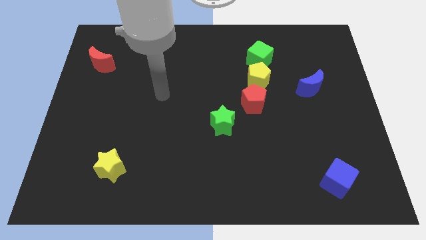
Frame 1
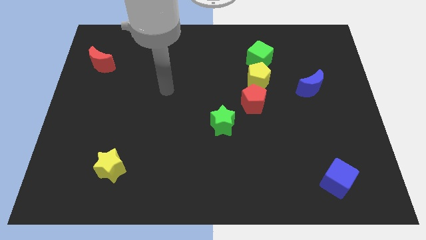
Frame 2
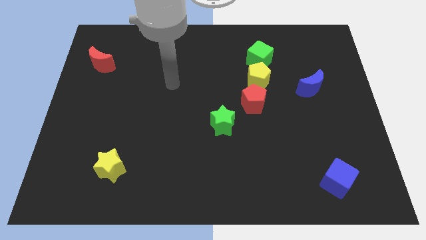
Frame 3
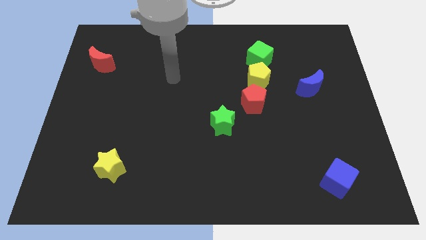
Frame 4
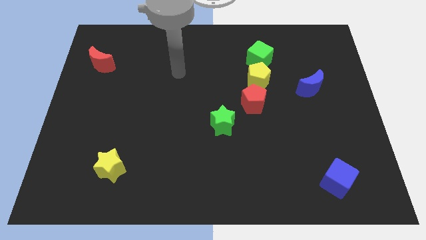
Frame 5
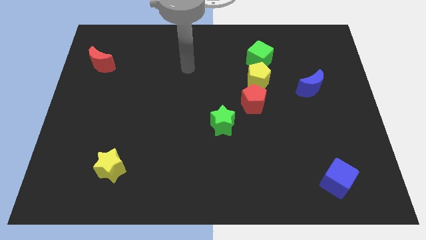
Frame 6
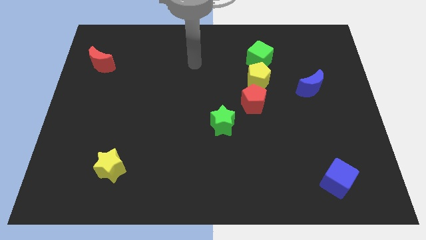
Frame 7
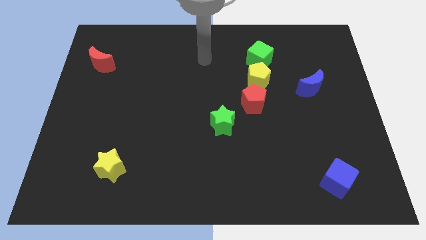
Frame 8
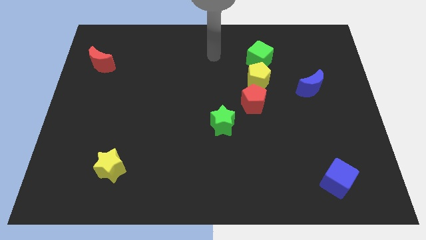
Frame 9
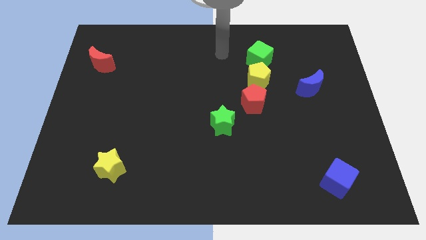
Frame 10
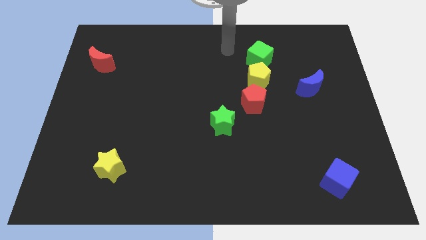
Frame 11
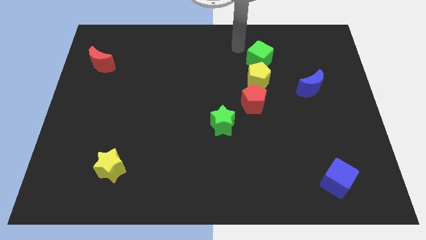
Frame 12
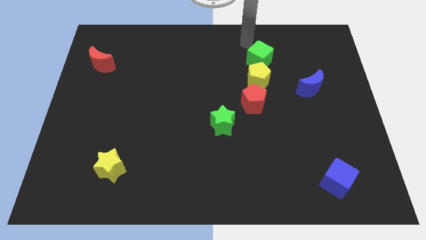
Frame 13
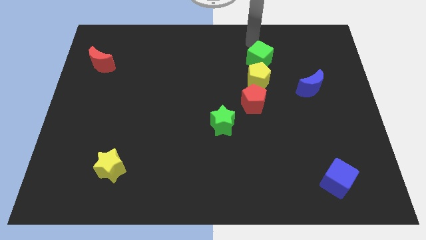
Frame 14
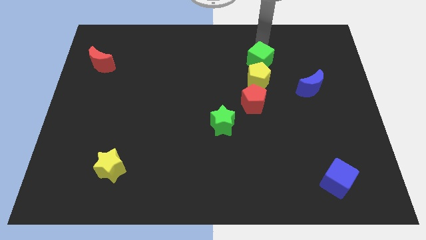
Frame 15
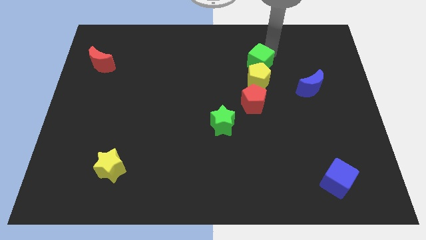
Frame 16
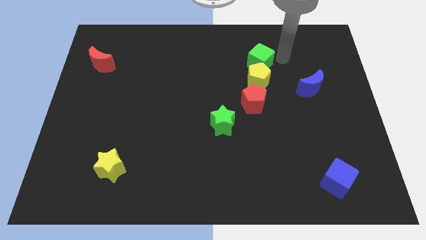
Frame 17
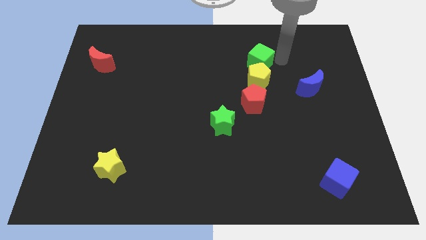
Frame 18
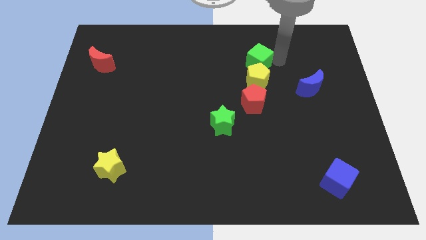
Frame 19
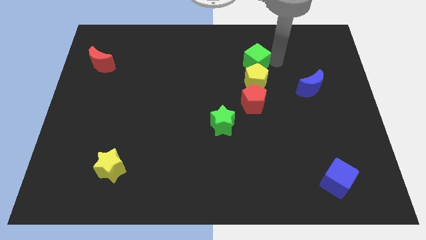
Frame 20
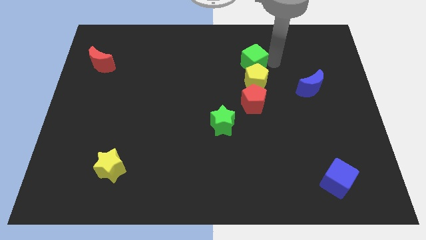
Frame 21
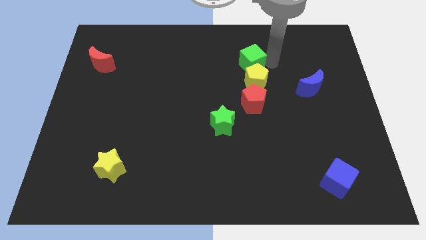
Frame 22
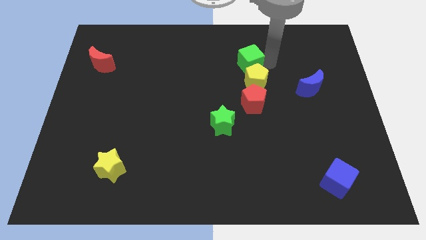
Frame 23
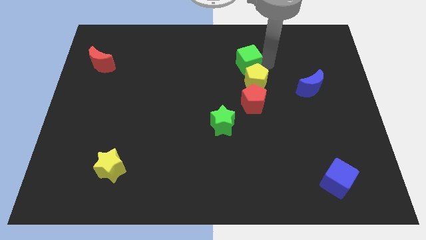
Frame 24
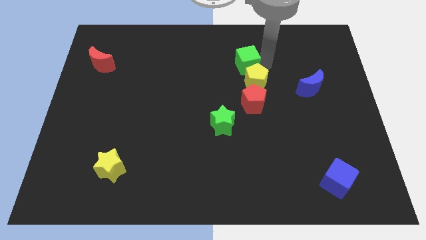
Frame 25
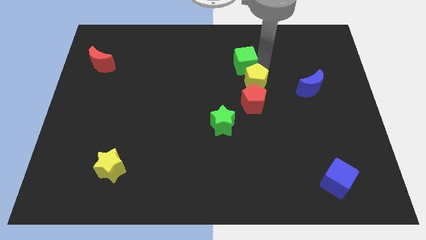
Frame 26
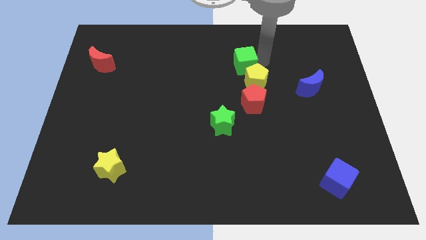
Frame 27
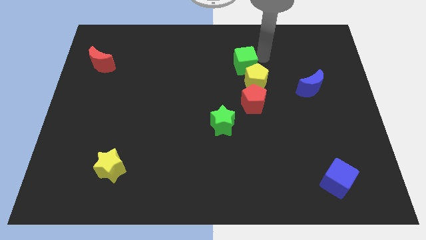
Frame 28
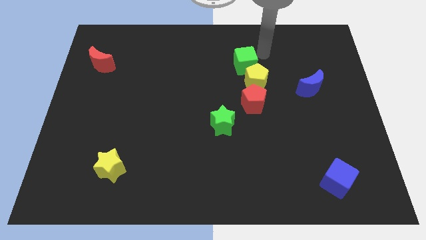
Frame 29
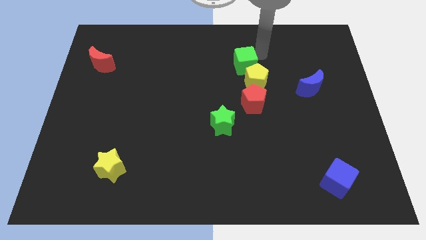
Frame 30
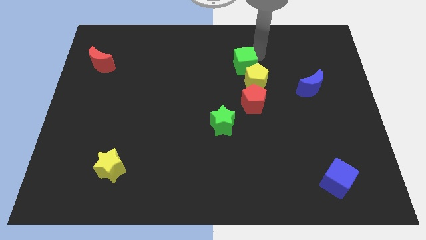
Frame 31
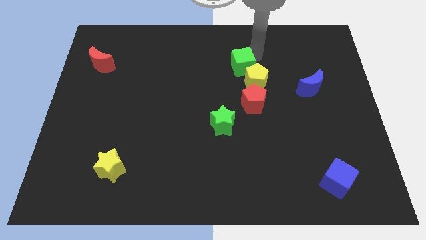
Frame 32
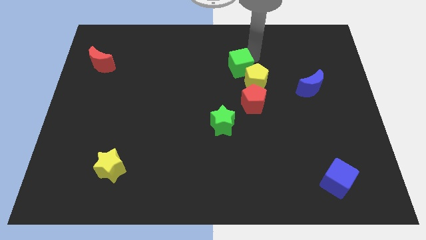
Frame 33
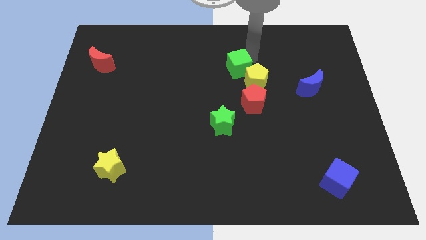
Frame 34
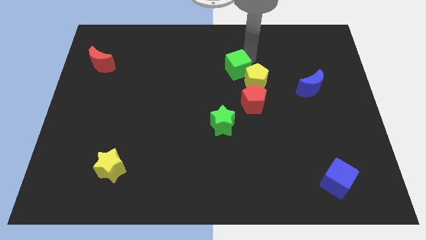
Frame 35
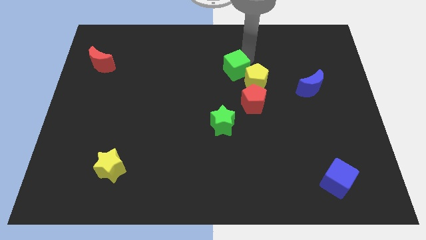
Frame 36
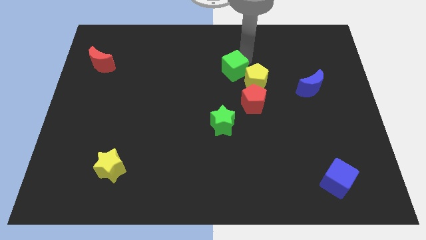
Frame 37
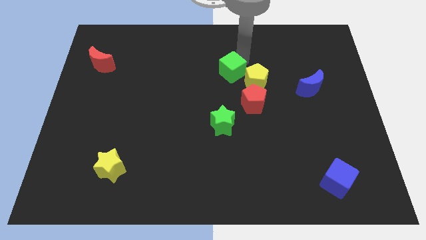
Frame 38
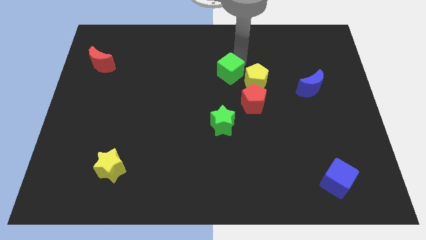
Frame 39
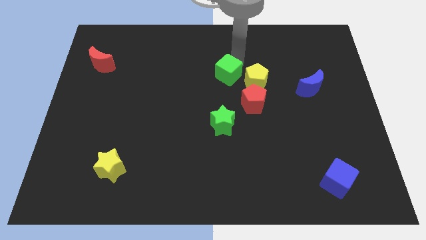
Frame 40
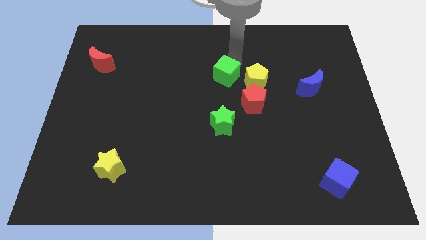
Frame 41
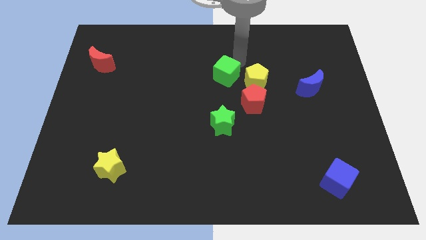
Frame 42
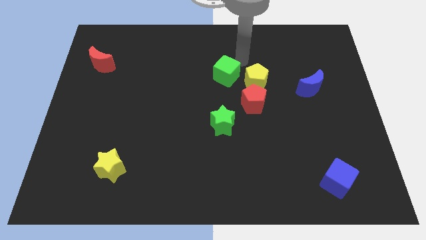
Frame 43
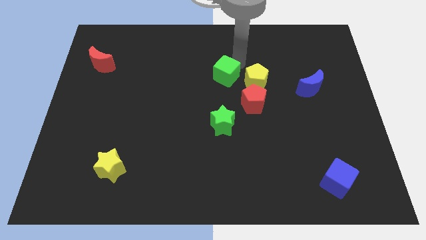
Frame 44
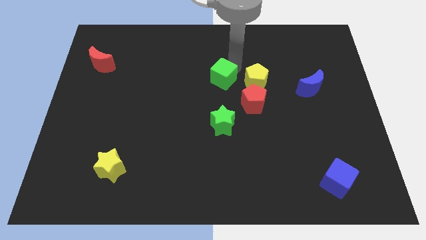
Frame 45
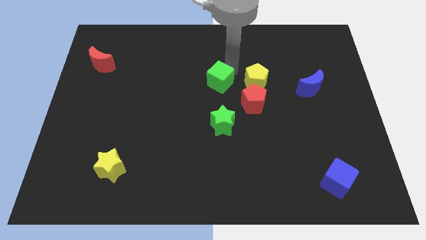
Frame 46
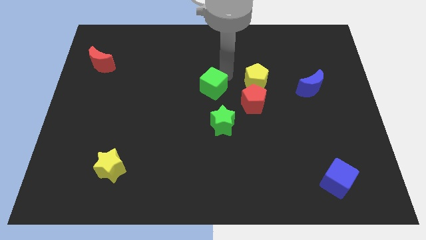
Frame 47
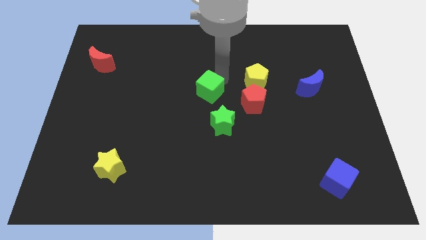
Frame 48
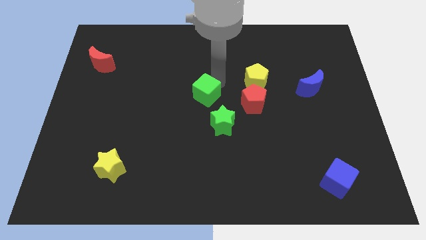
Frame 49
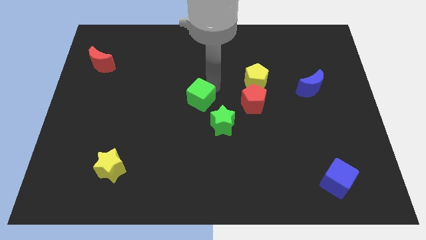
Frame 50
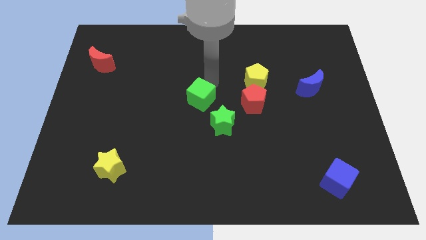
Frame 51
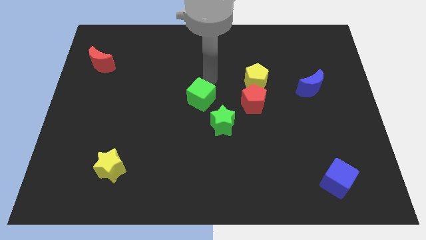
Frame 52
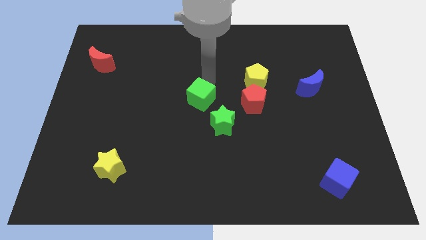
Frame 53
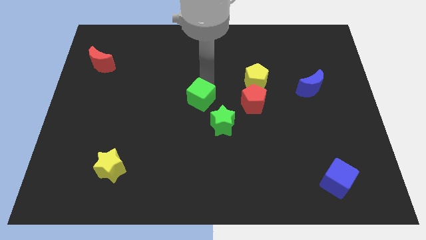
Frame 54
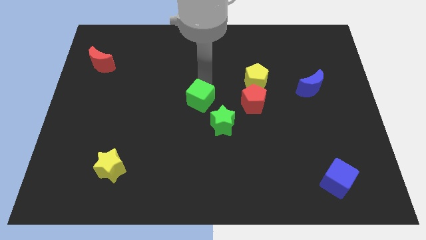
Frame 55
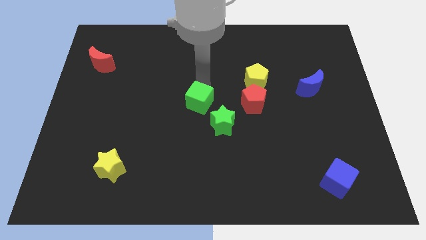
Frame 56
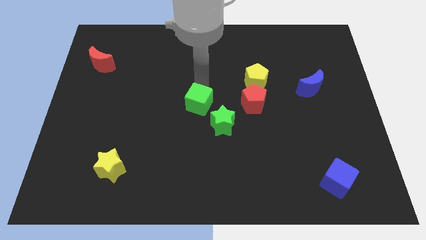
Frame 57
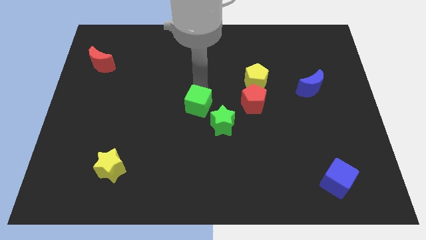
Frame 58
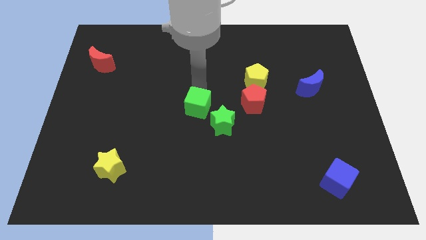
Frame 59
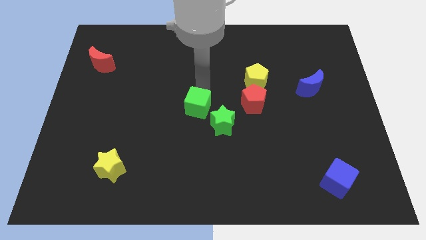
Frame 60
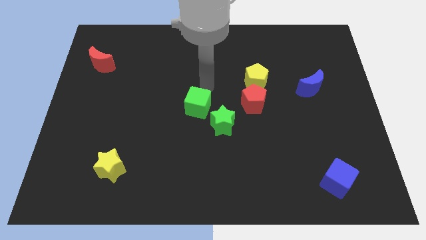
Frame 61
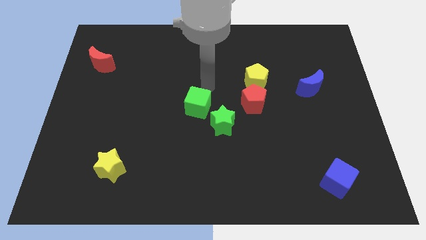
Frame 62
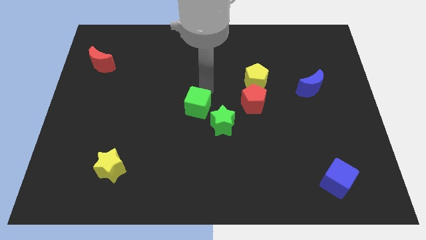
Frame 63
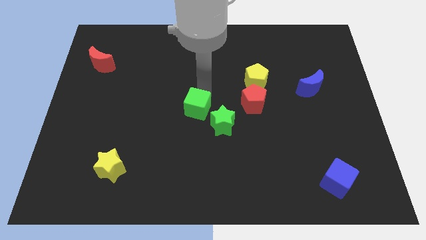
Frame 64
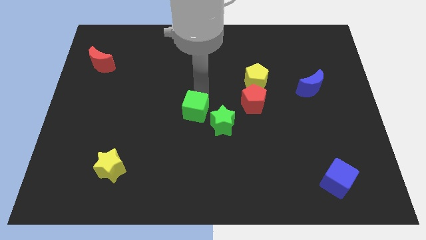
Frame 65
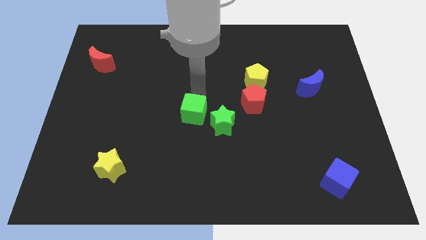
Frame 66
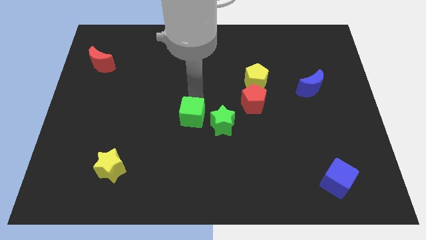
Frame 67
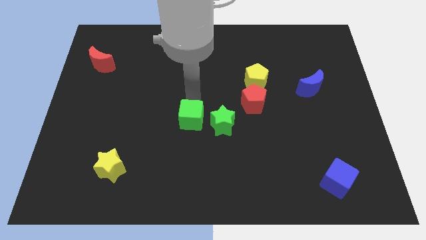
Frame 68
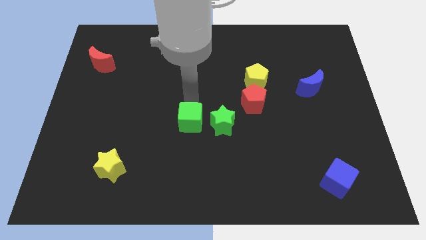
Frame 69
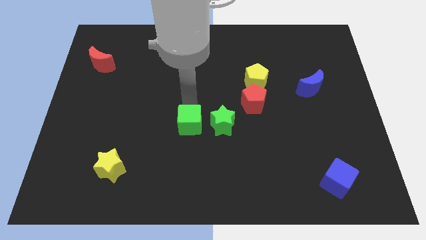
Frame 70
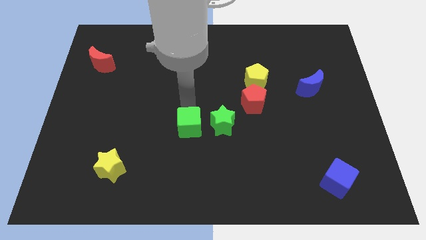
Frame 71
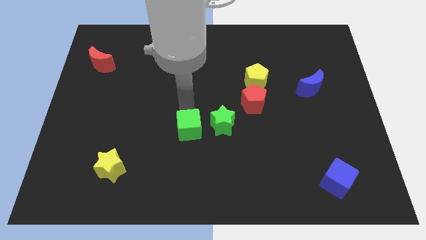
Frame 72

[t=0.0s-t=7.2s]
put the green cube diagonally down and to the left of the green star
